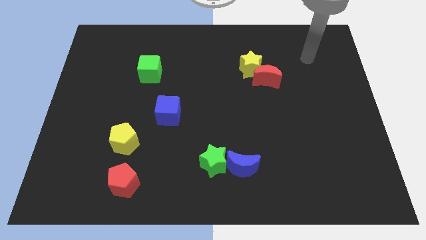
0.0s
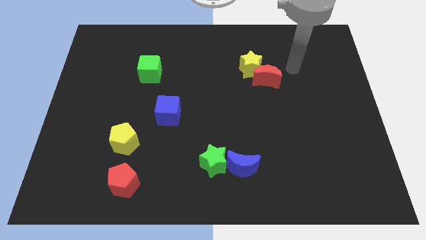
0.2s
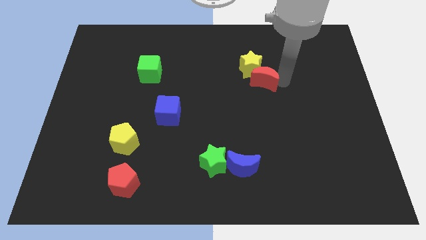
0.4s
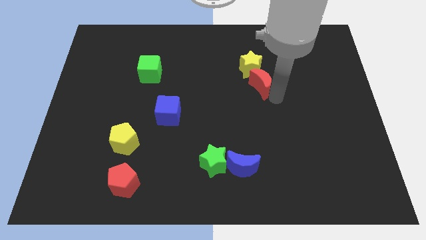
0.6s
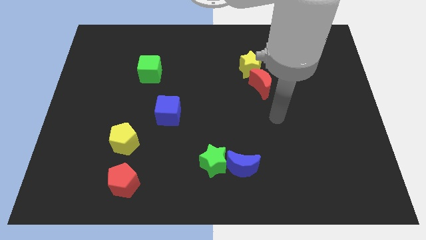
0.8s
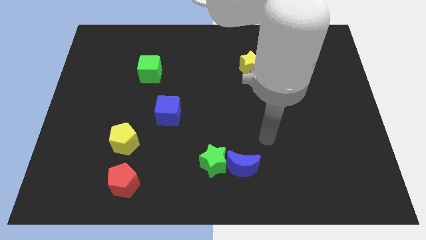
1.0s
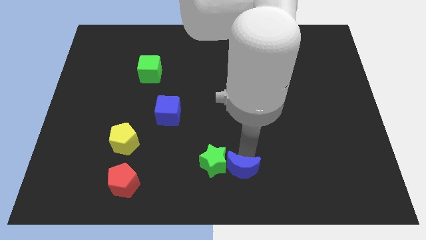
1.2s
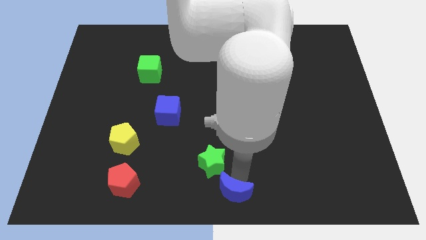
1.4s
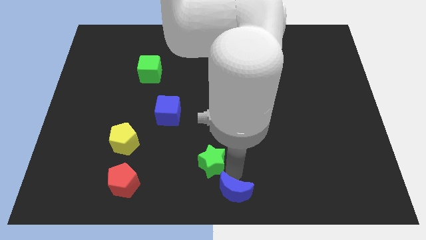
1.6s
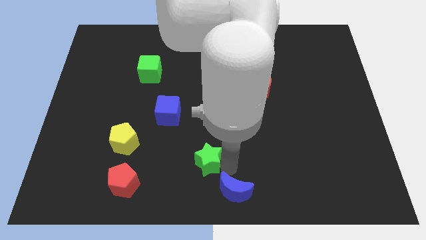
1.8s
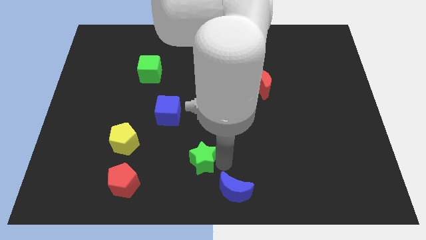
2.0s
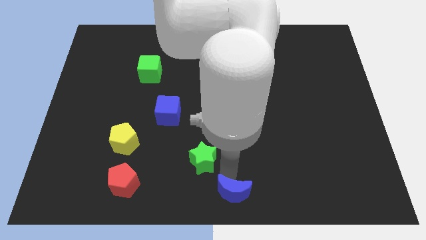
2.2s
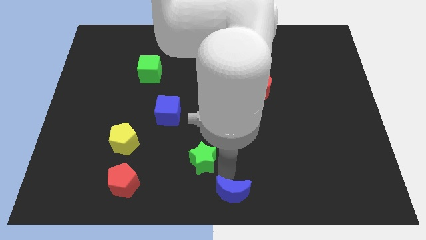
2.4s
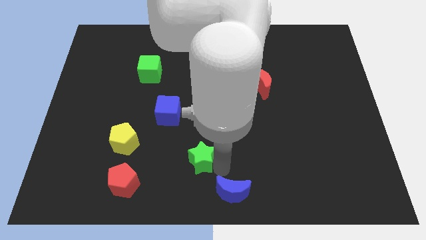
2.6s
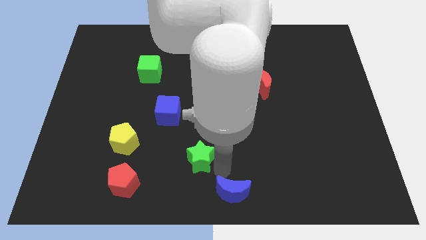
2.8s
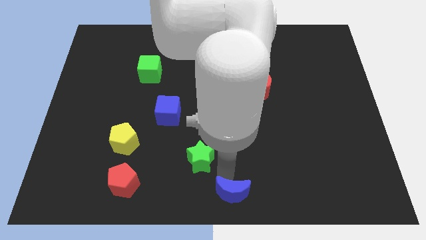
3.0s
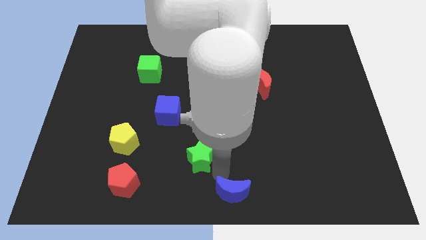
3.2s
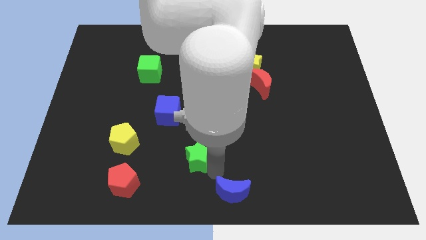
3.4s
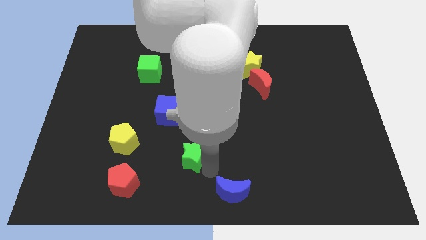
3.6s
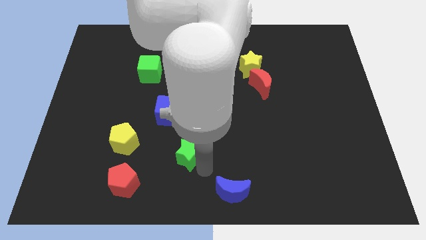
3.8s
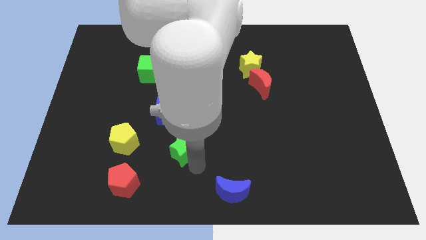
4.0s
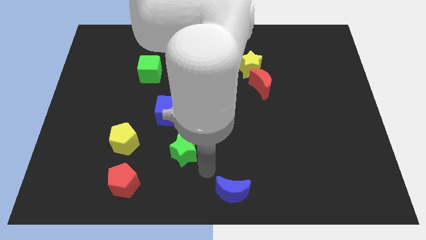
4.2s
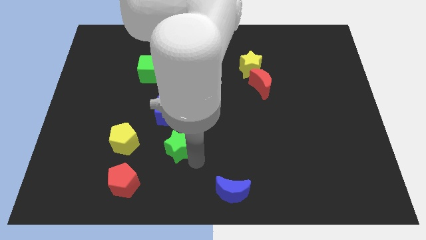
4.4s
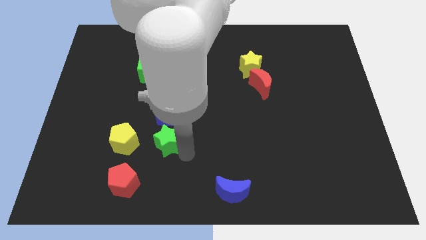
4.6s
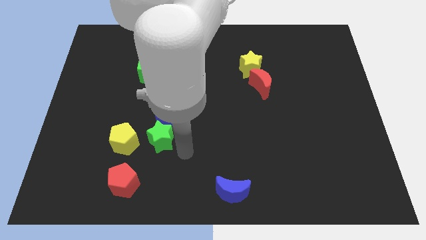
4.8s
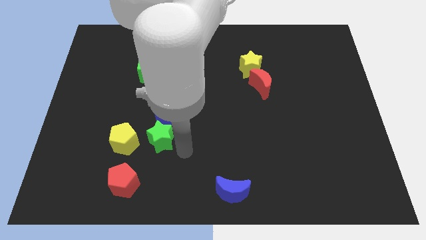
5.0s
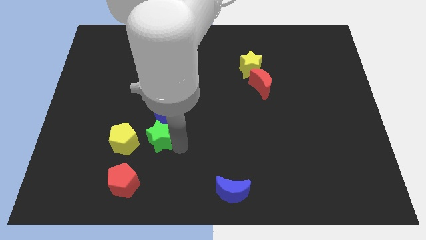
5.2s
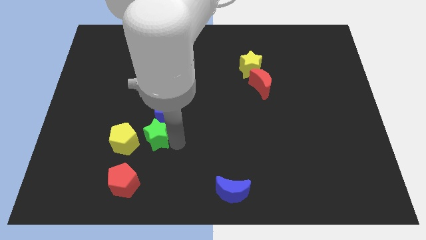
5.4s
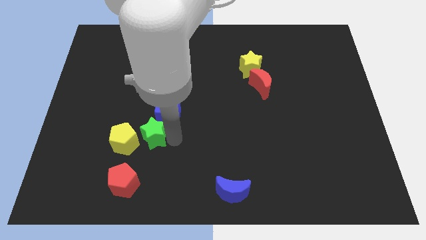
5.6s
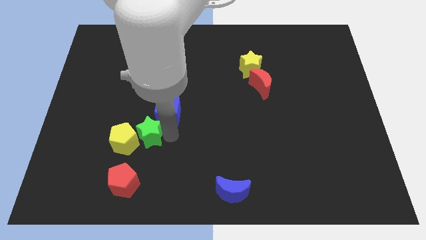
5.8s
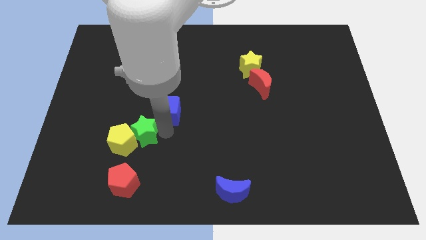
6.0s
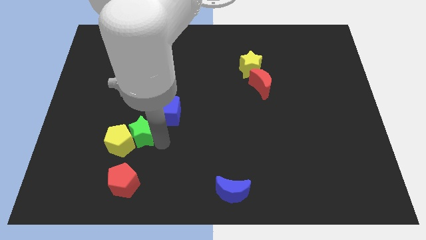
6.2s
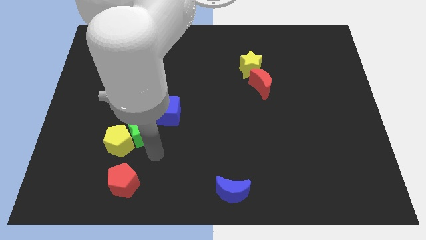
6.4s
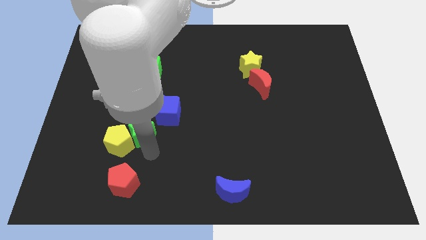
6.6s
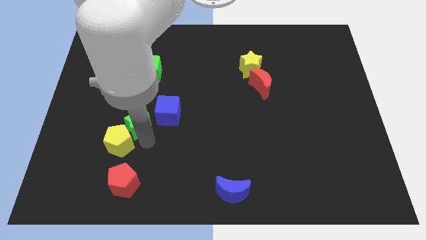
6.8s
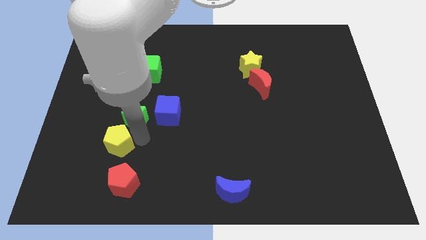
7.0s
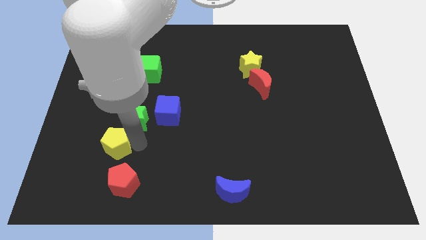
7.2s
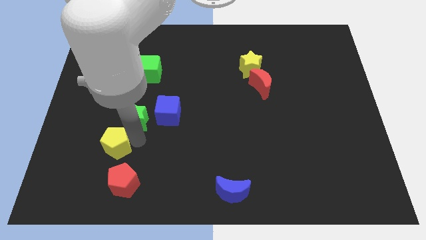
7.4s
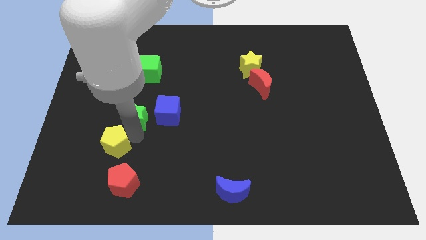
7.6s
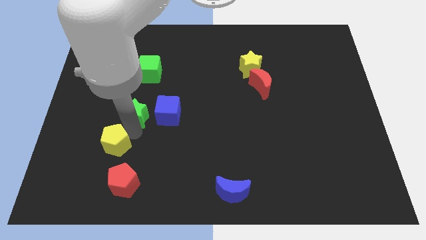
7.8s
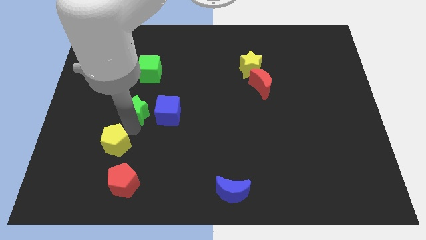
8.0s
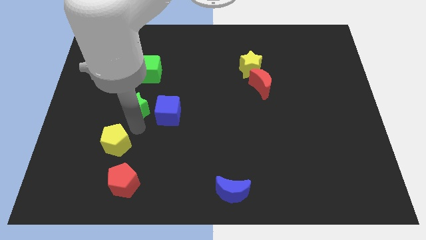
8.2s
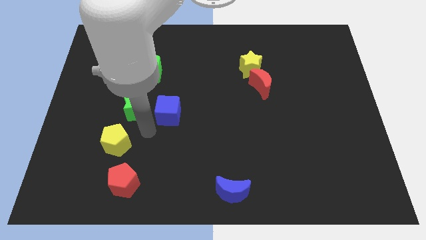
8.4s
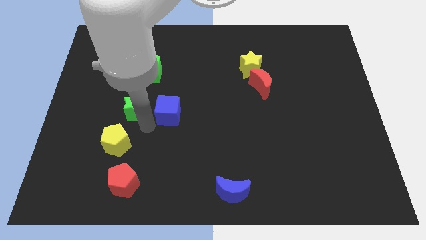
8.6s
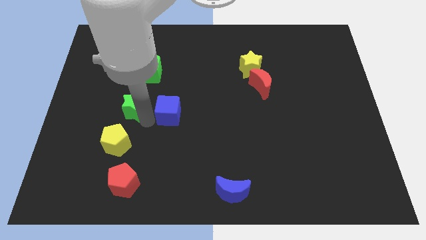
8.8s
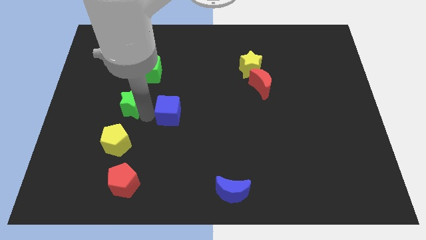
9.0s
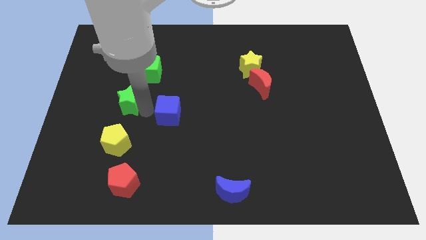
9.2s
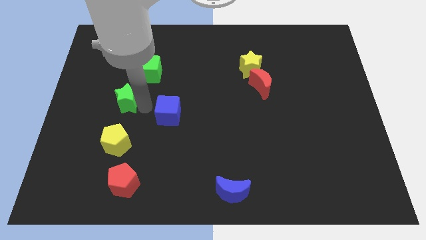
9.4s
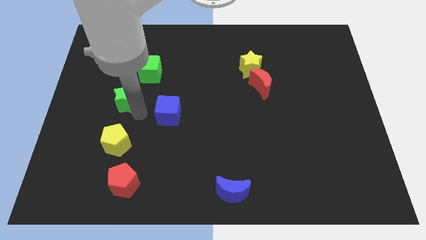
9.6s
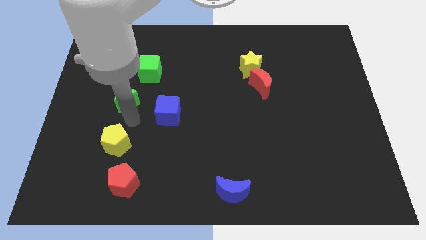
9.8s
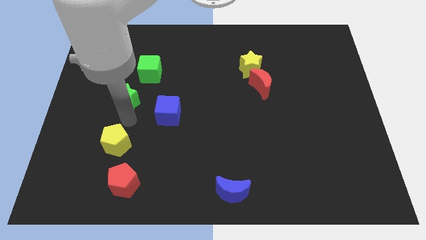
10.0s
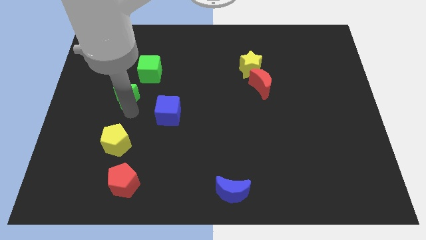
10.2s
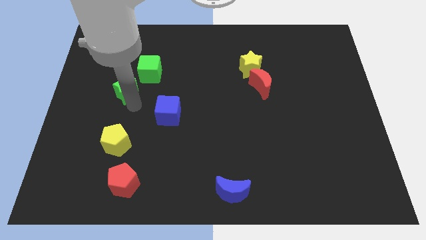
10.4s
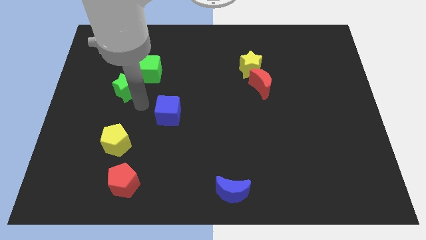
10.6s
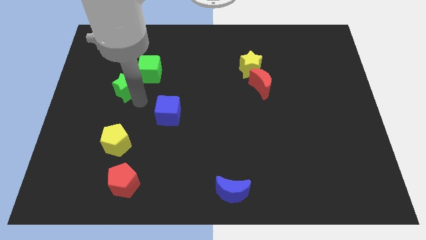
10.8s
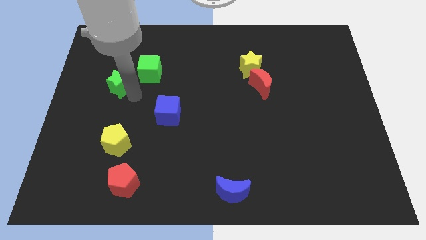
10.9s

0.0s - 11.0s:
push the green star left of the green cube

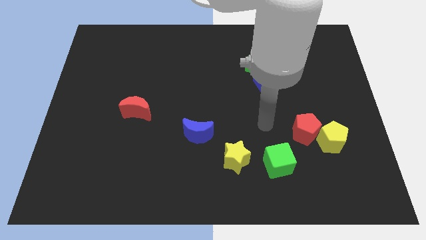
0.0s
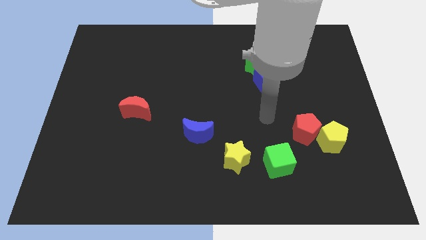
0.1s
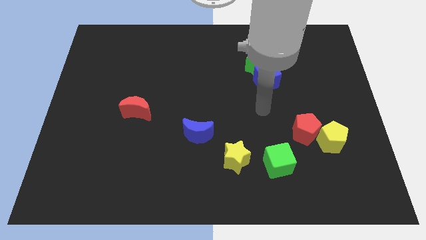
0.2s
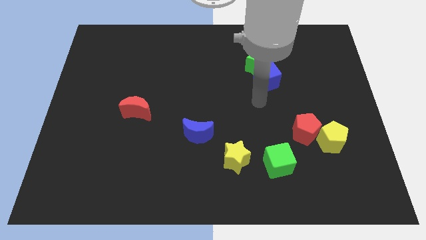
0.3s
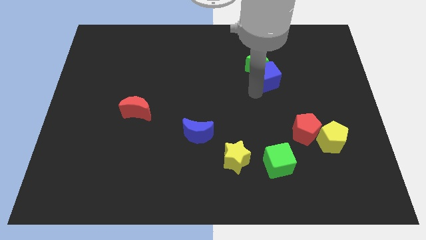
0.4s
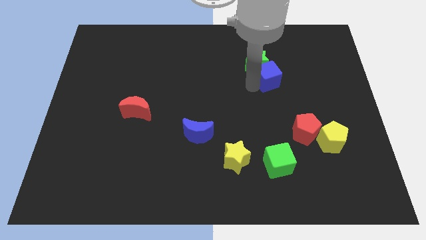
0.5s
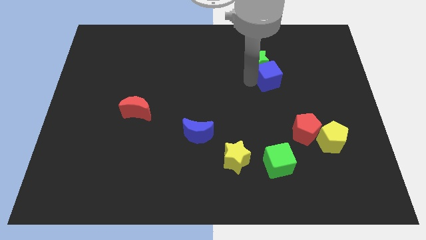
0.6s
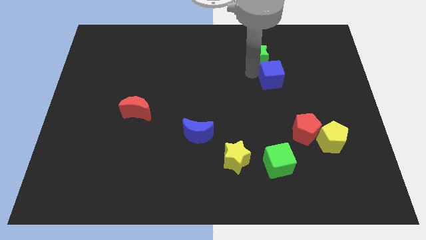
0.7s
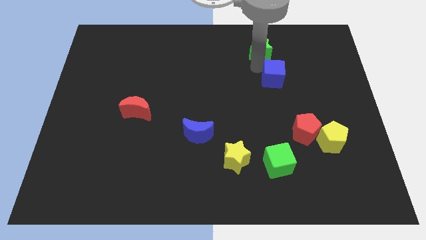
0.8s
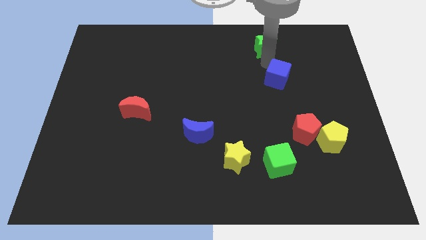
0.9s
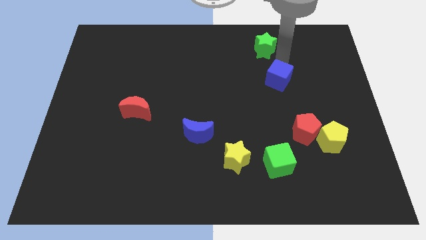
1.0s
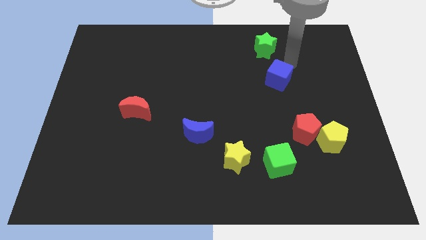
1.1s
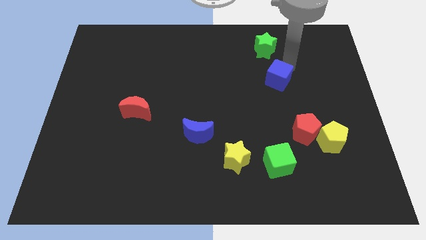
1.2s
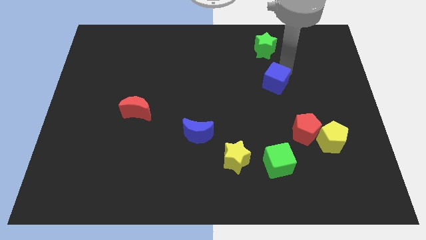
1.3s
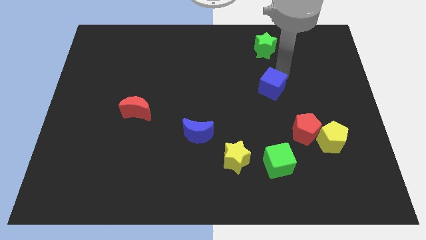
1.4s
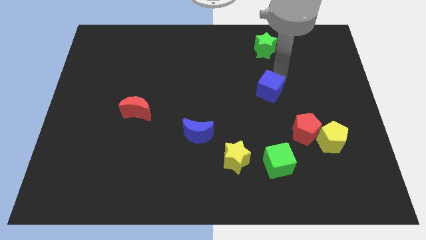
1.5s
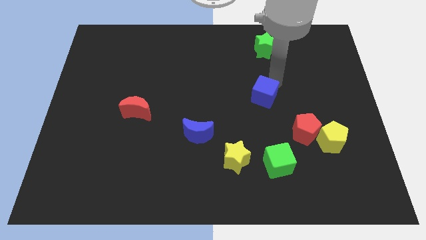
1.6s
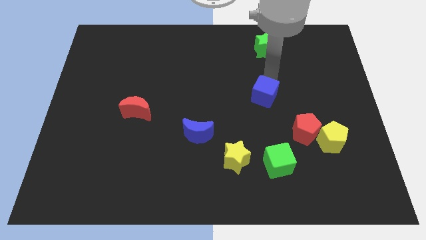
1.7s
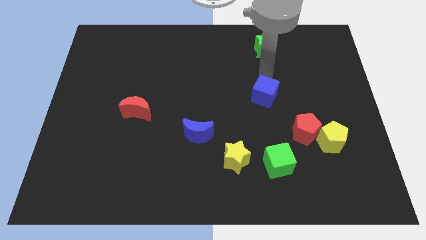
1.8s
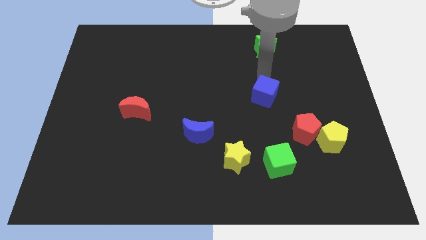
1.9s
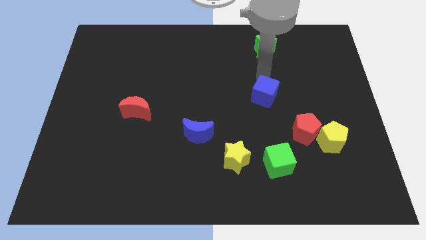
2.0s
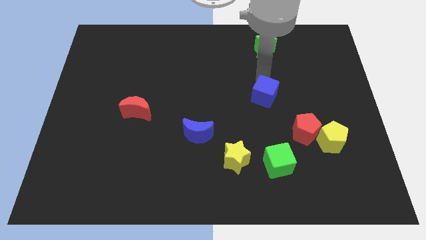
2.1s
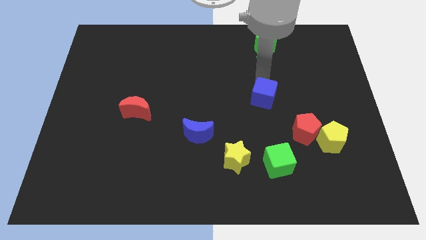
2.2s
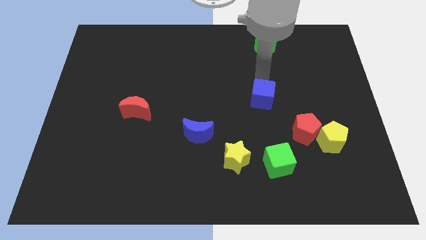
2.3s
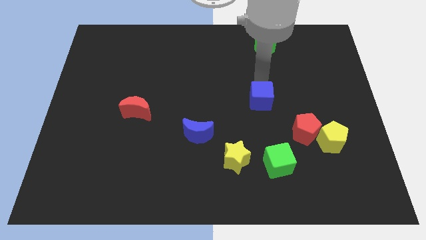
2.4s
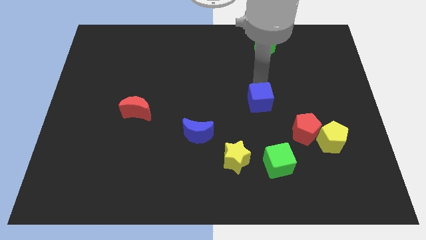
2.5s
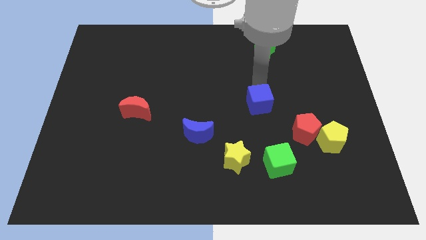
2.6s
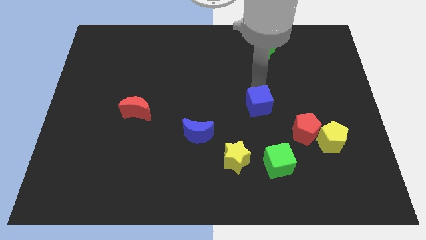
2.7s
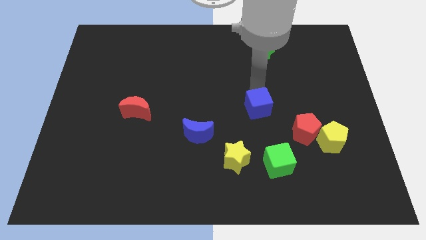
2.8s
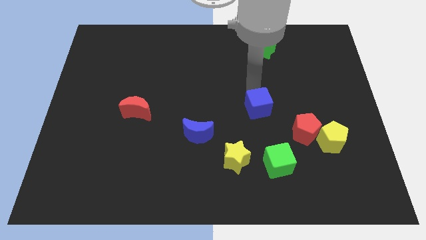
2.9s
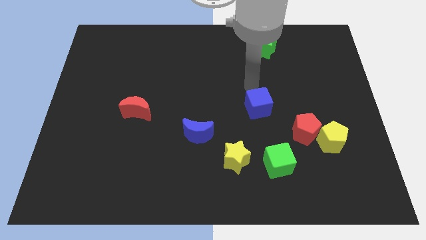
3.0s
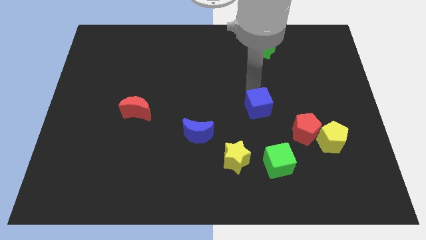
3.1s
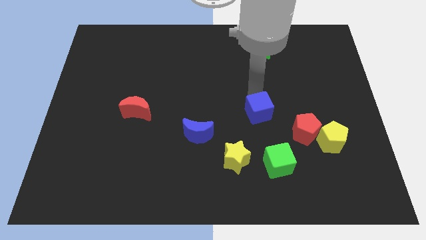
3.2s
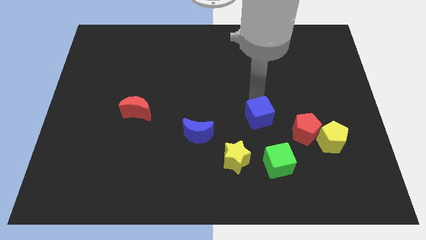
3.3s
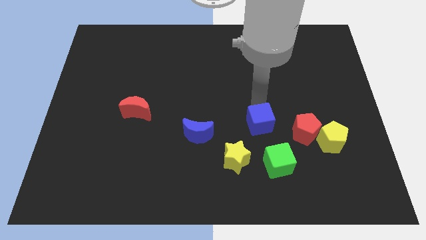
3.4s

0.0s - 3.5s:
move the blue cube to the top right of the yellow star
